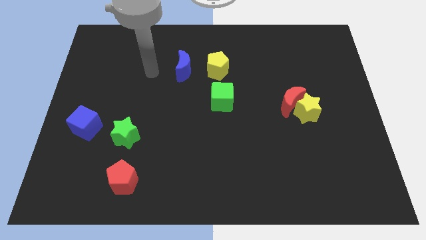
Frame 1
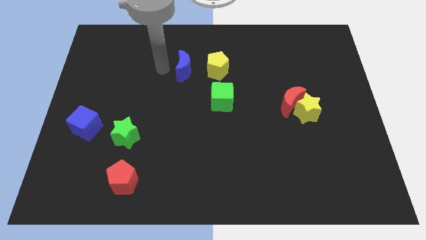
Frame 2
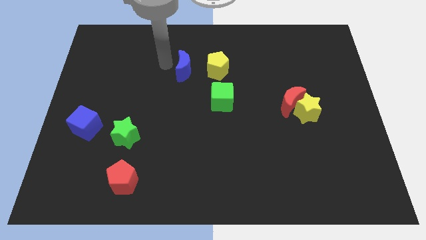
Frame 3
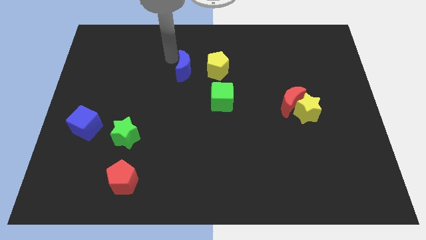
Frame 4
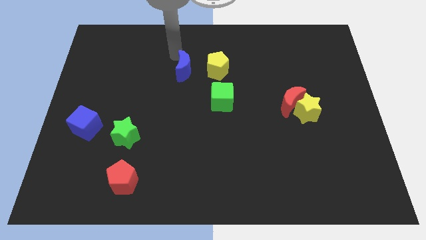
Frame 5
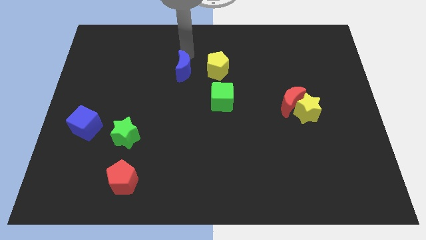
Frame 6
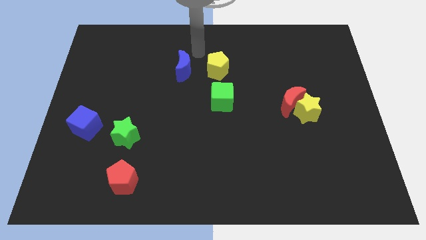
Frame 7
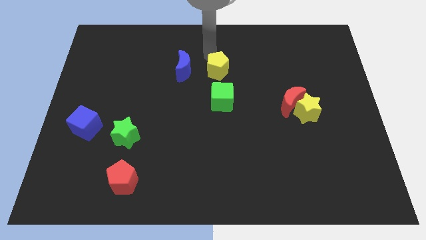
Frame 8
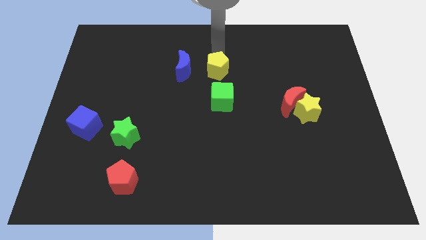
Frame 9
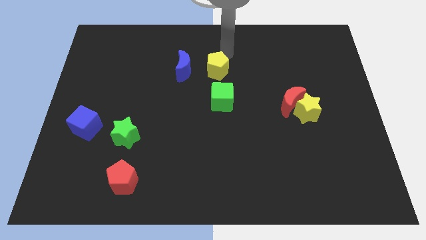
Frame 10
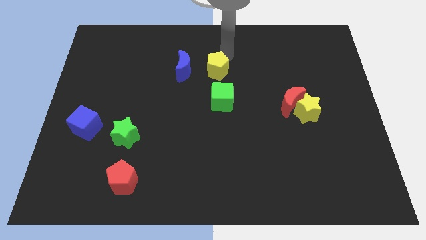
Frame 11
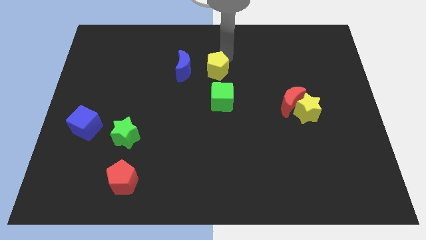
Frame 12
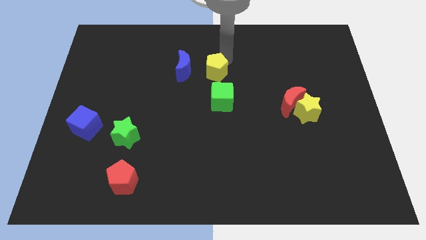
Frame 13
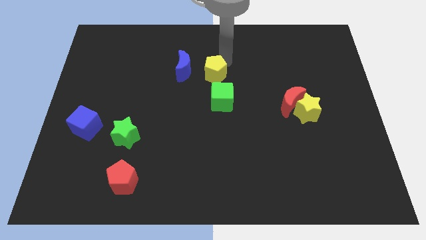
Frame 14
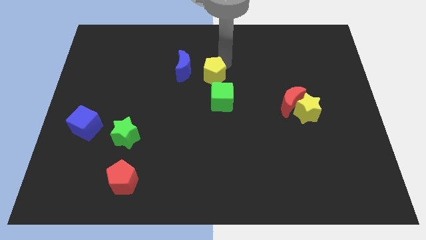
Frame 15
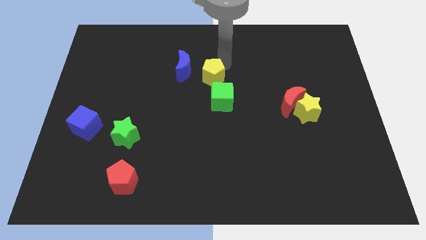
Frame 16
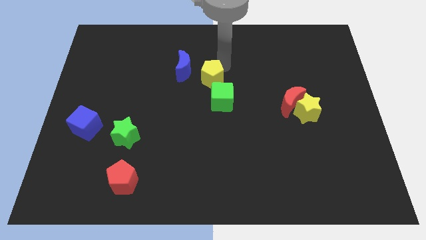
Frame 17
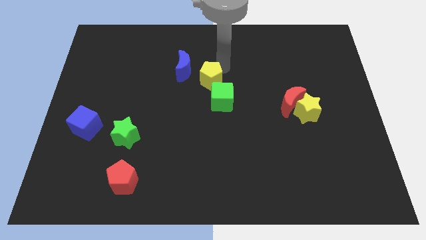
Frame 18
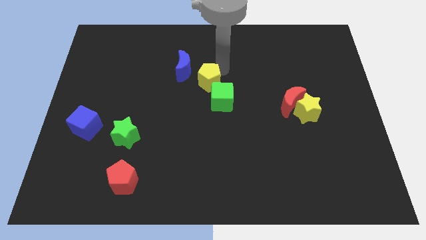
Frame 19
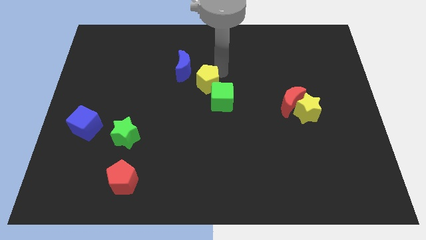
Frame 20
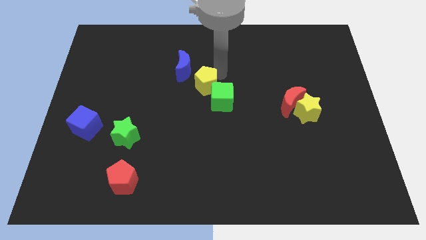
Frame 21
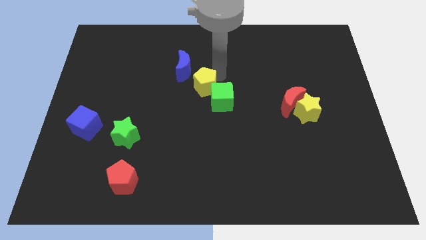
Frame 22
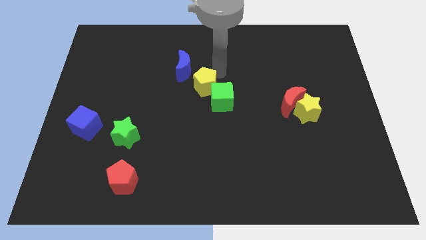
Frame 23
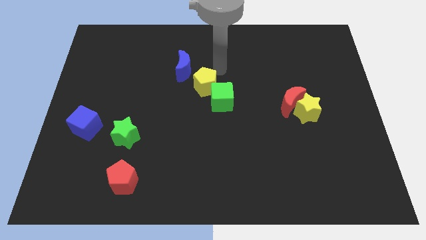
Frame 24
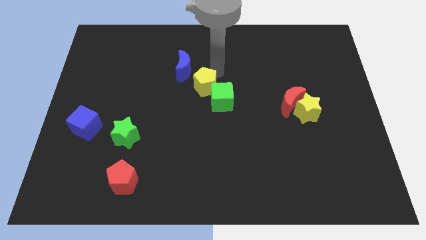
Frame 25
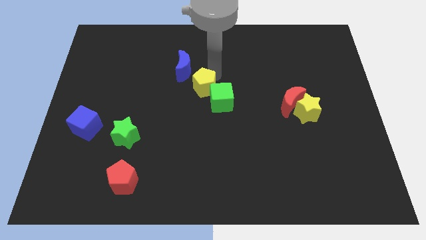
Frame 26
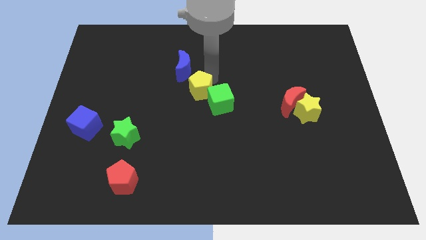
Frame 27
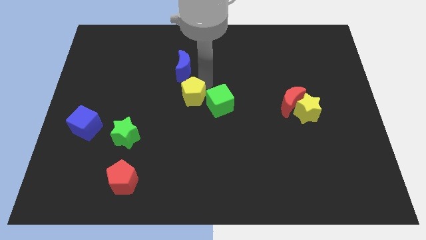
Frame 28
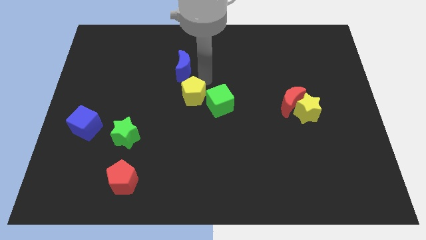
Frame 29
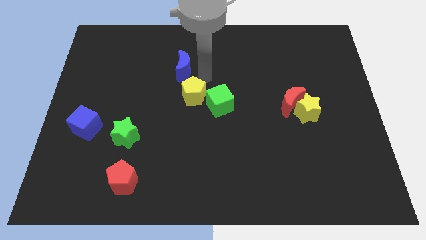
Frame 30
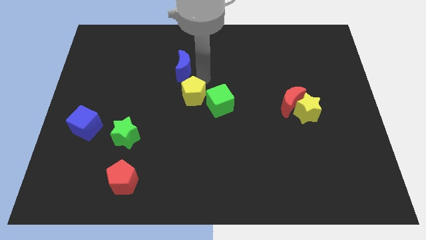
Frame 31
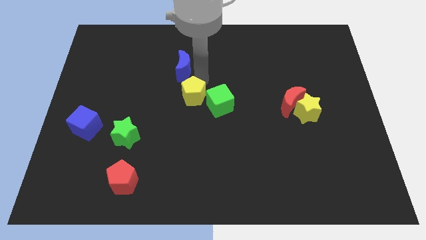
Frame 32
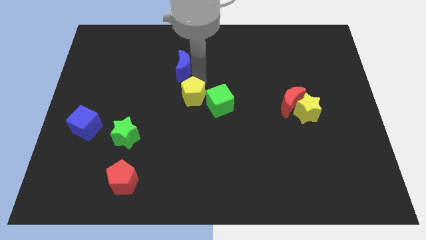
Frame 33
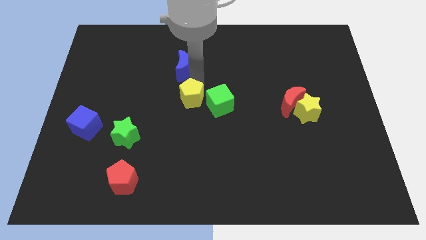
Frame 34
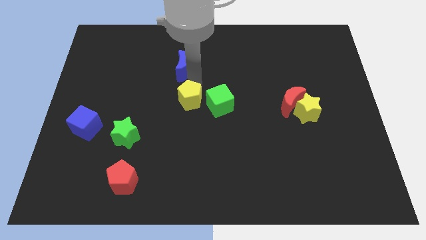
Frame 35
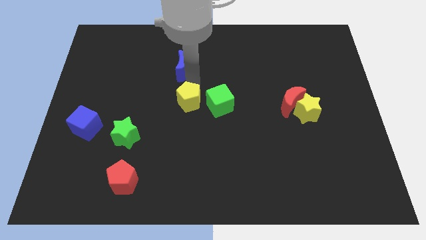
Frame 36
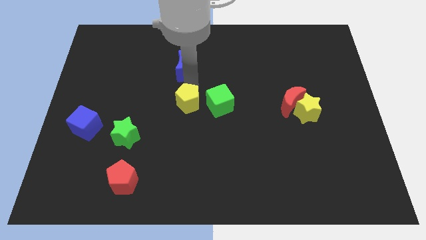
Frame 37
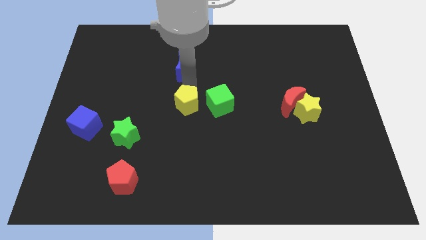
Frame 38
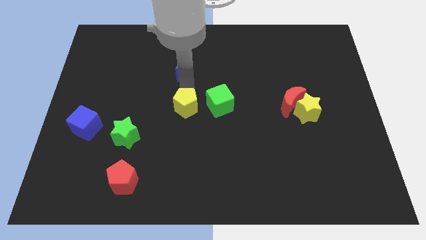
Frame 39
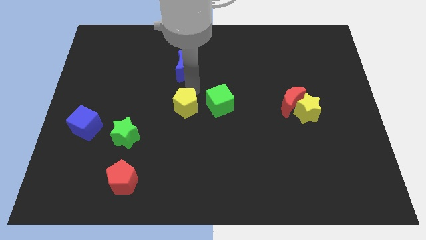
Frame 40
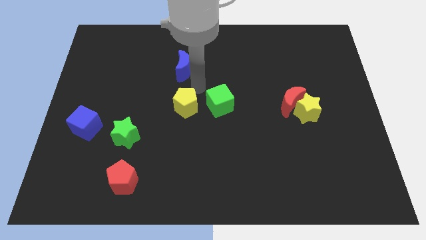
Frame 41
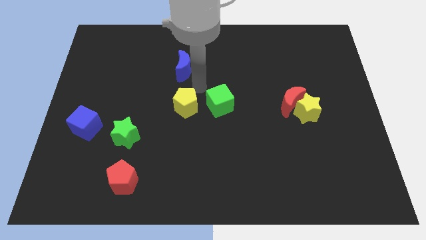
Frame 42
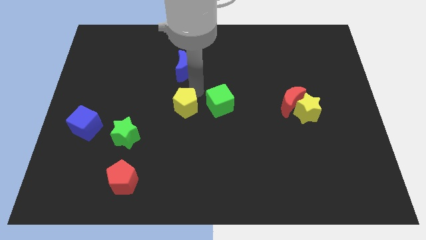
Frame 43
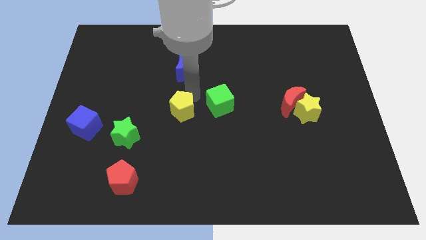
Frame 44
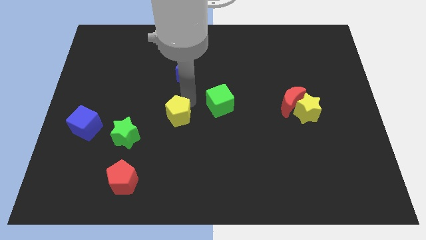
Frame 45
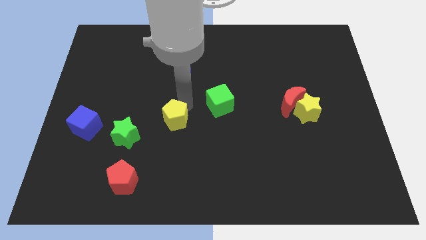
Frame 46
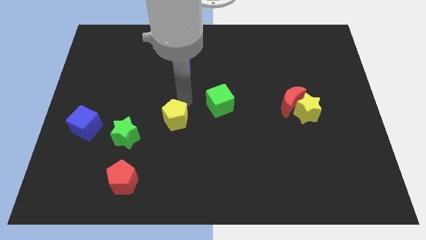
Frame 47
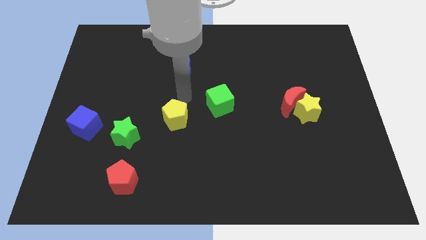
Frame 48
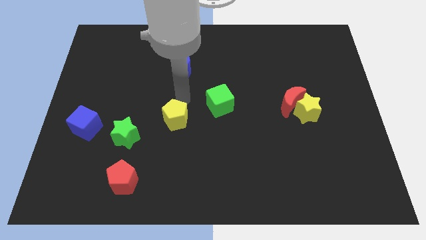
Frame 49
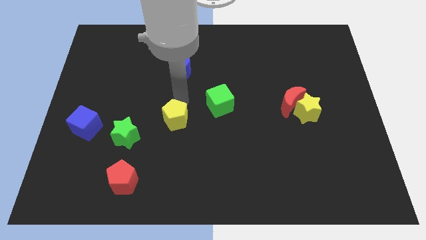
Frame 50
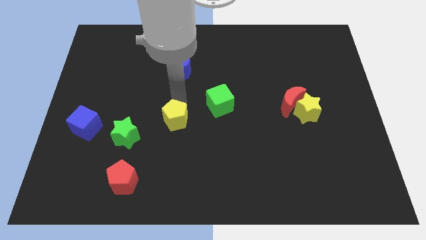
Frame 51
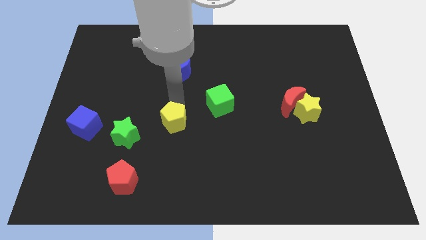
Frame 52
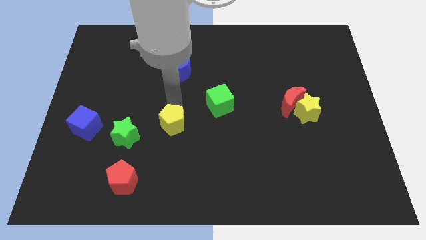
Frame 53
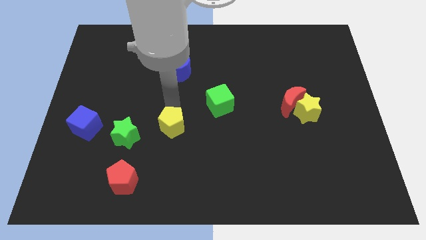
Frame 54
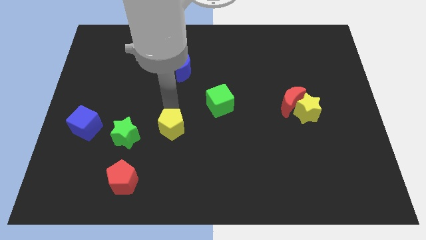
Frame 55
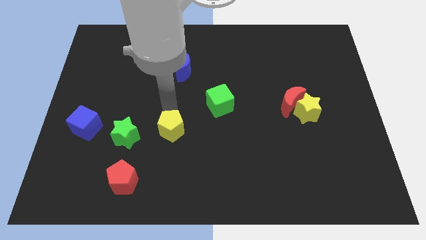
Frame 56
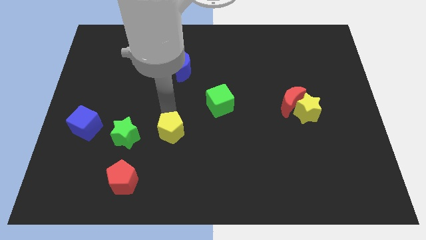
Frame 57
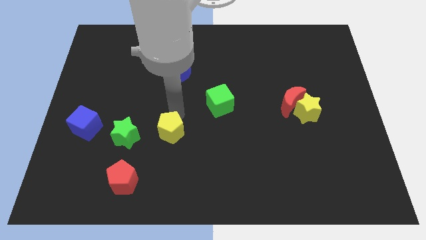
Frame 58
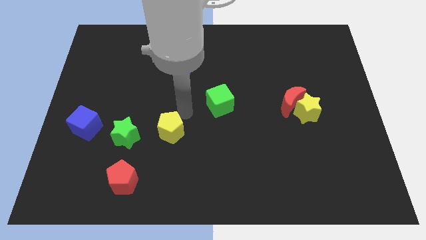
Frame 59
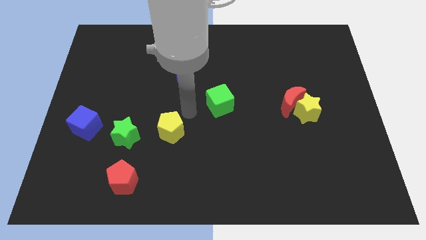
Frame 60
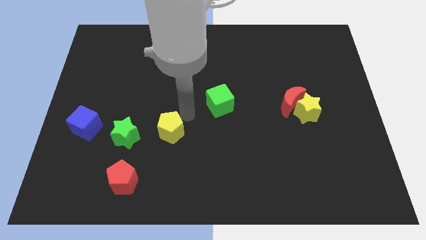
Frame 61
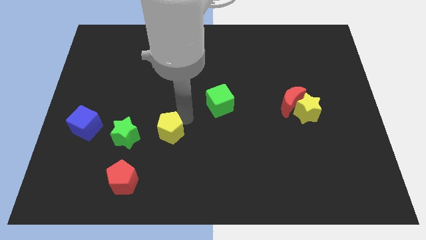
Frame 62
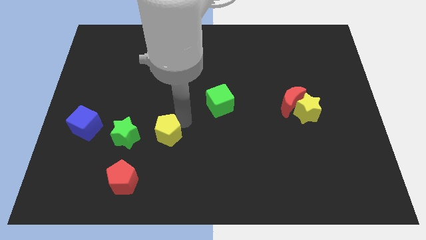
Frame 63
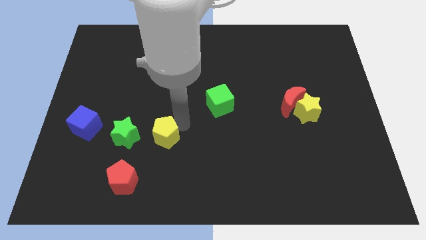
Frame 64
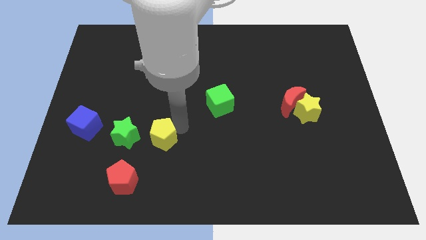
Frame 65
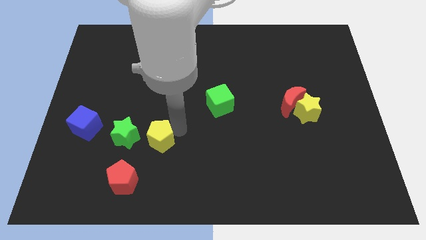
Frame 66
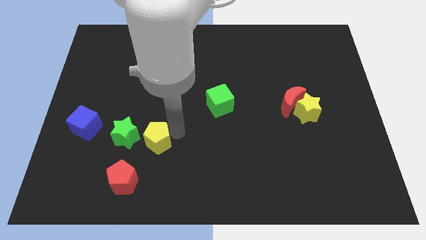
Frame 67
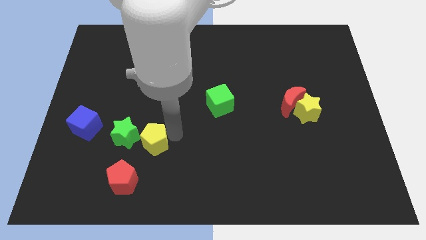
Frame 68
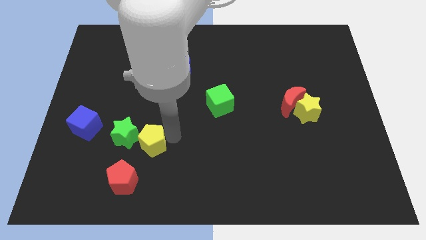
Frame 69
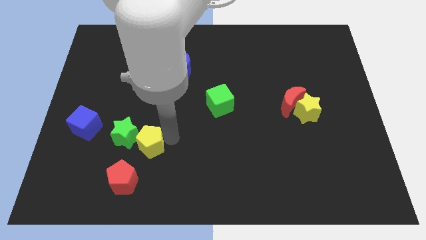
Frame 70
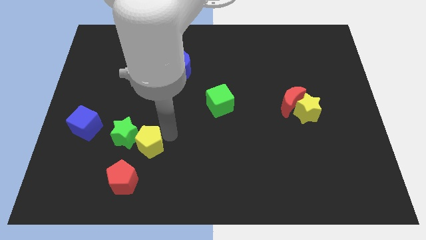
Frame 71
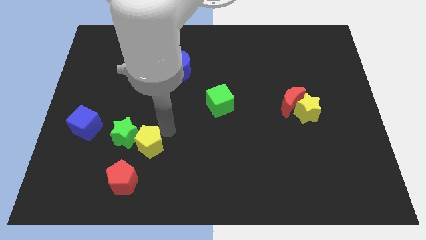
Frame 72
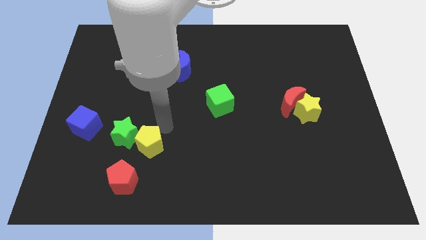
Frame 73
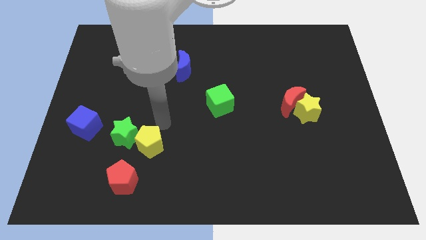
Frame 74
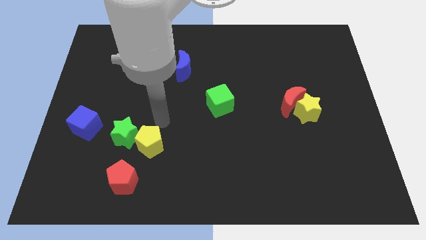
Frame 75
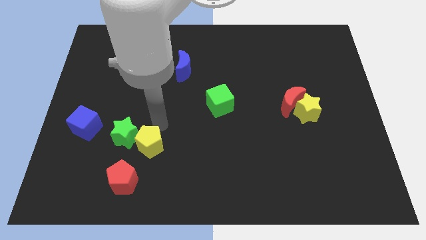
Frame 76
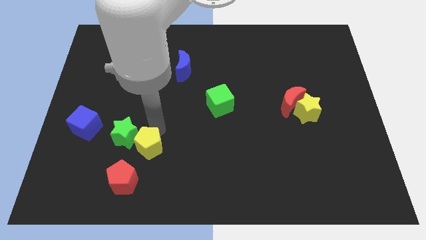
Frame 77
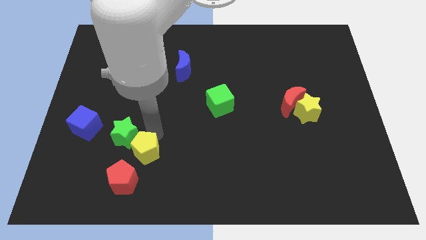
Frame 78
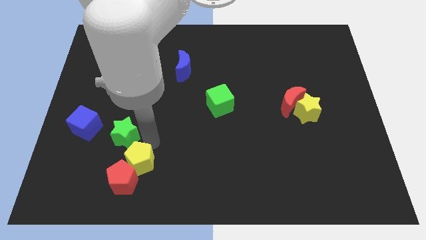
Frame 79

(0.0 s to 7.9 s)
push the yellow pentagon towards the red pentagon
